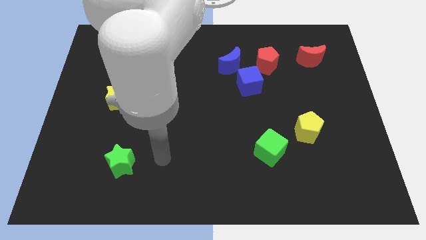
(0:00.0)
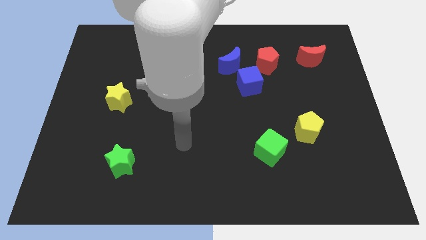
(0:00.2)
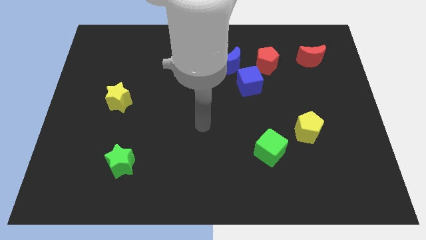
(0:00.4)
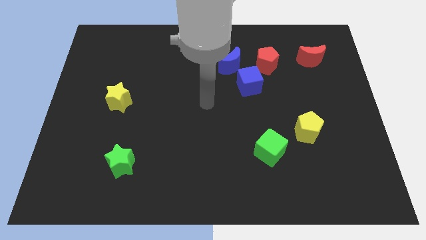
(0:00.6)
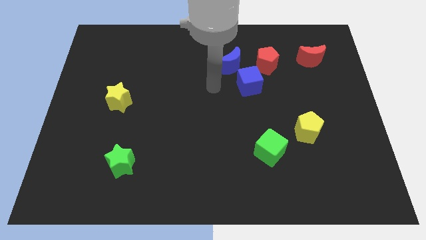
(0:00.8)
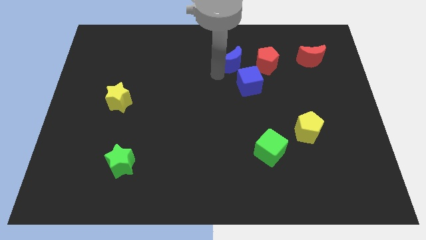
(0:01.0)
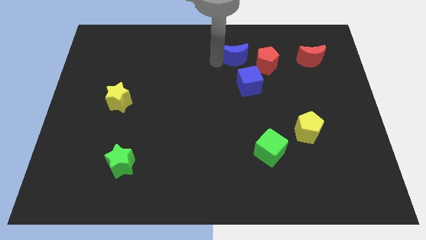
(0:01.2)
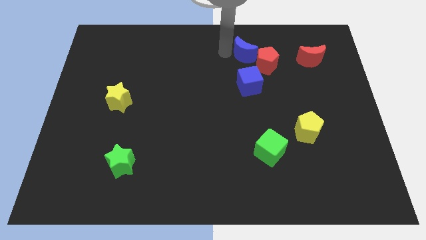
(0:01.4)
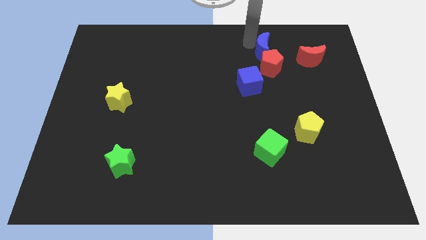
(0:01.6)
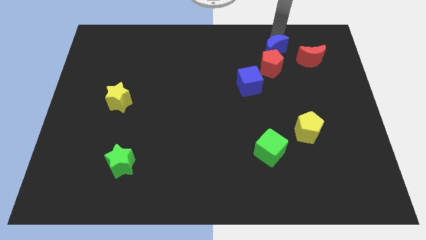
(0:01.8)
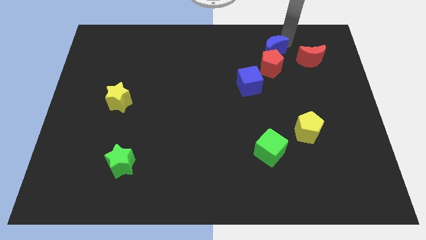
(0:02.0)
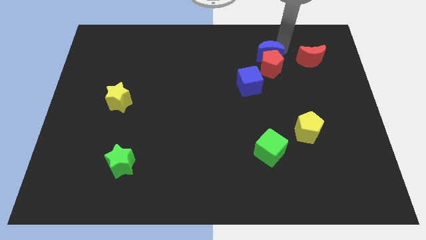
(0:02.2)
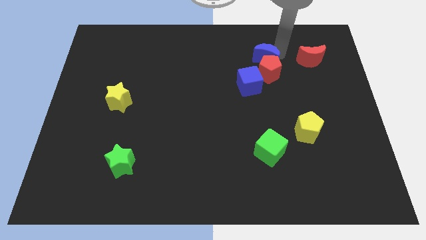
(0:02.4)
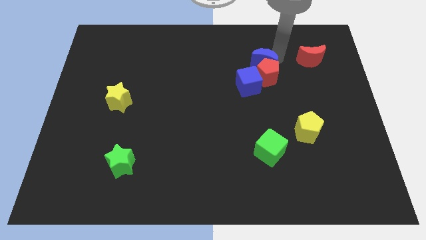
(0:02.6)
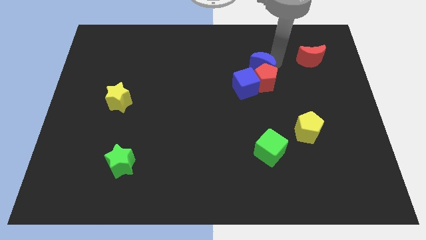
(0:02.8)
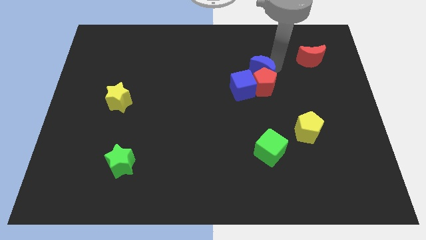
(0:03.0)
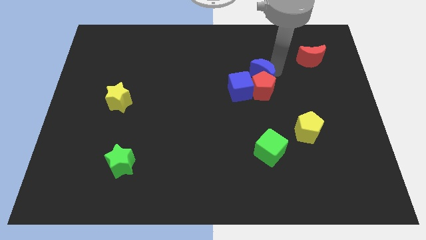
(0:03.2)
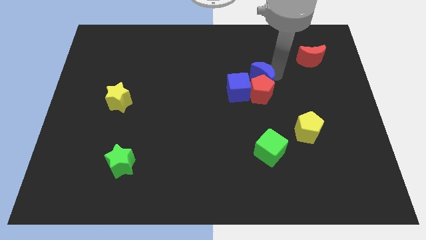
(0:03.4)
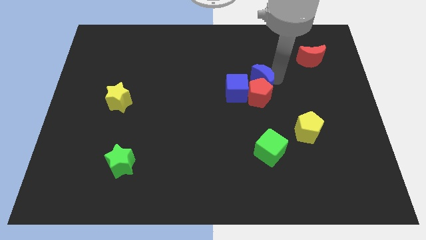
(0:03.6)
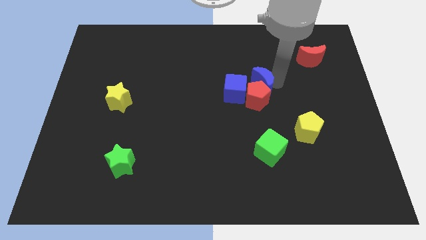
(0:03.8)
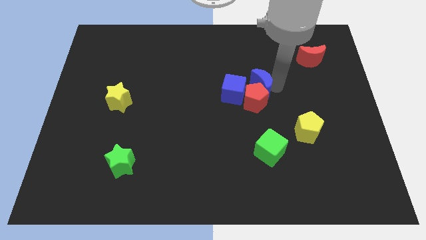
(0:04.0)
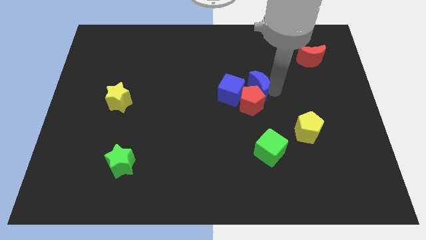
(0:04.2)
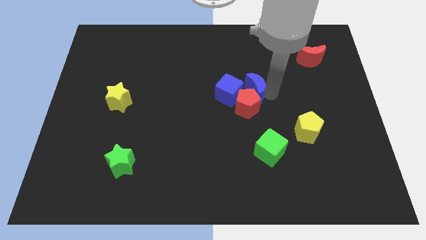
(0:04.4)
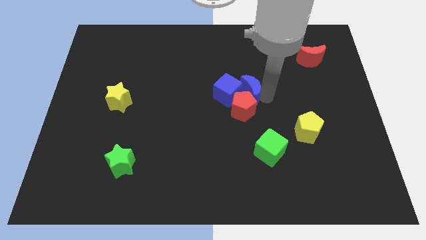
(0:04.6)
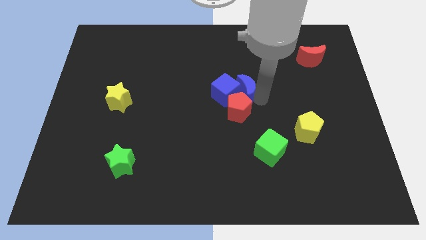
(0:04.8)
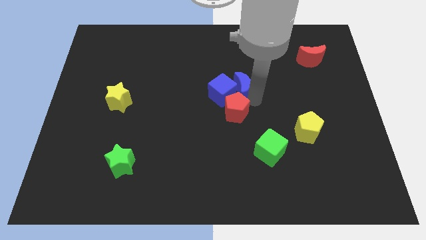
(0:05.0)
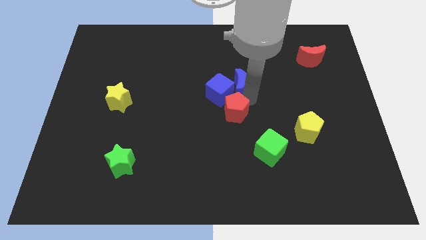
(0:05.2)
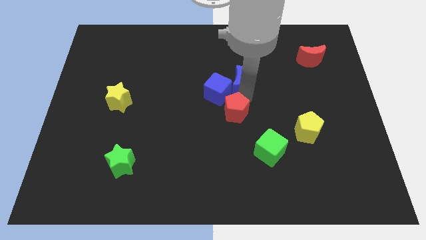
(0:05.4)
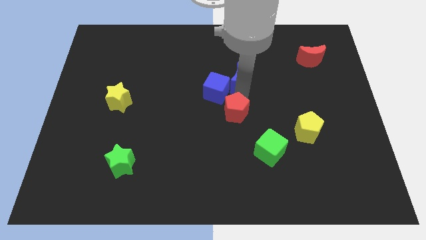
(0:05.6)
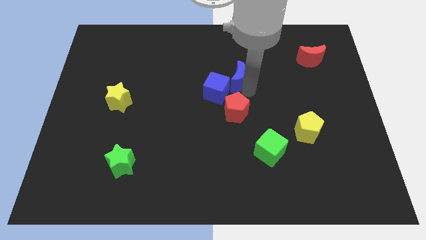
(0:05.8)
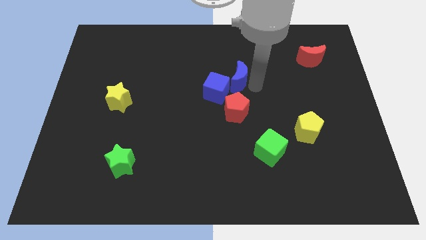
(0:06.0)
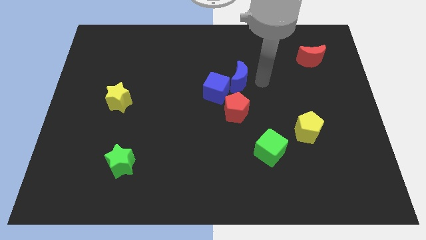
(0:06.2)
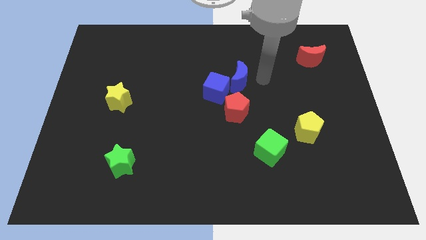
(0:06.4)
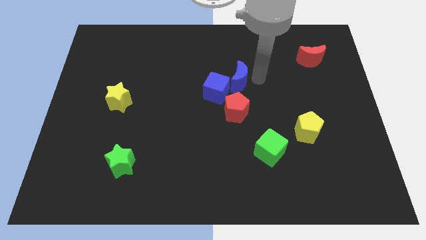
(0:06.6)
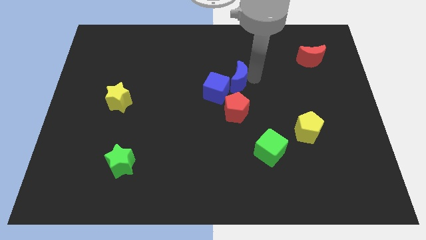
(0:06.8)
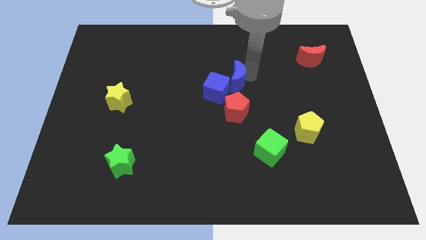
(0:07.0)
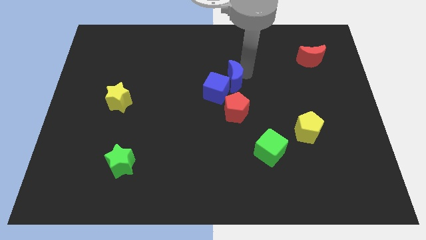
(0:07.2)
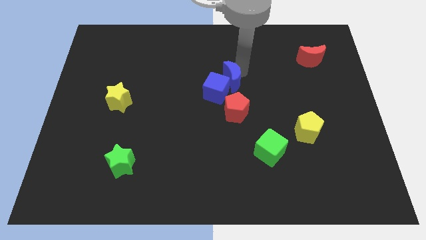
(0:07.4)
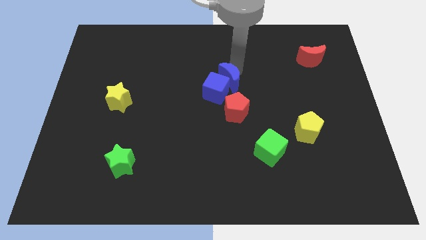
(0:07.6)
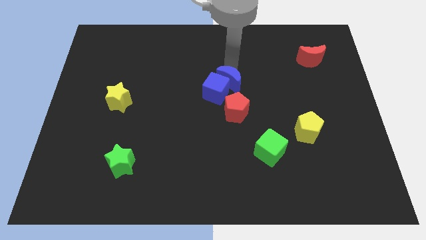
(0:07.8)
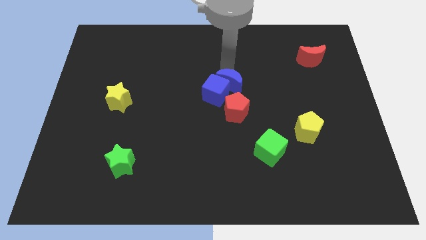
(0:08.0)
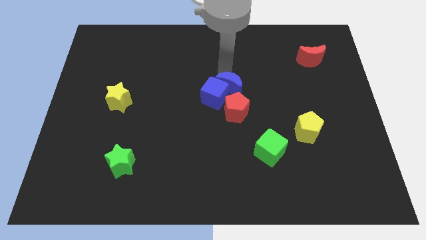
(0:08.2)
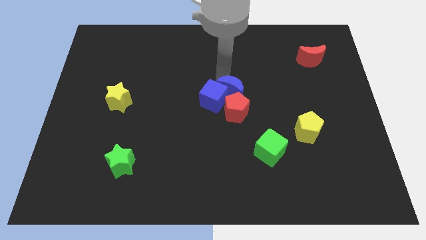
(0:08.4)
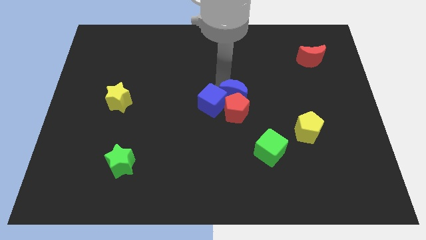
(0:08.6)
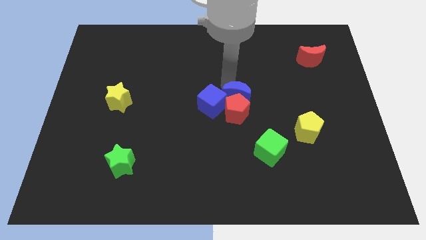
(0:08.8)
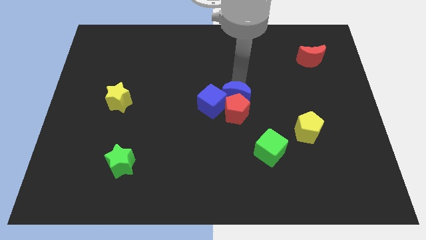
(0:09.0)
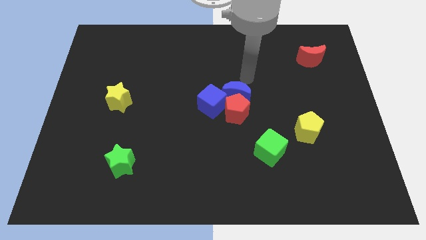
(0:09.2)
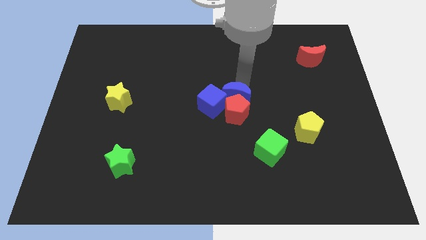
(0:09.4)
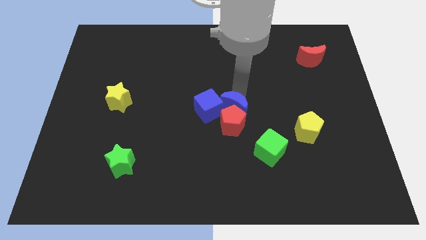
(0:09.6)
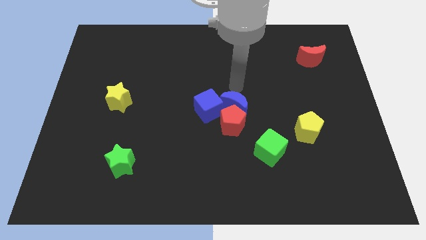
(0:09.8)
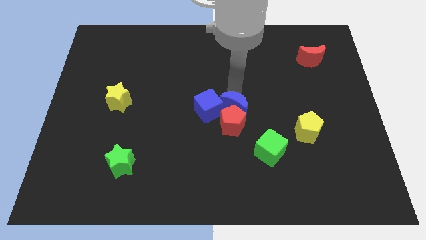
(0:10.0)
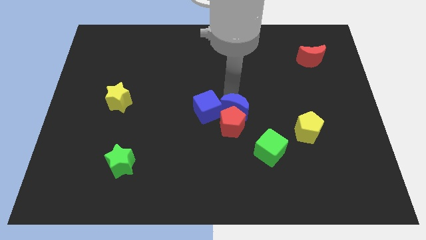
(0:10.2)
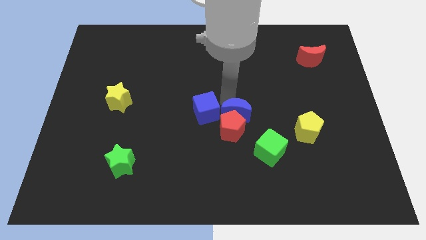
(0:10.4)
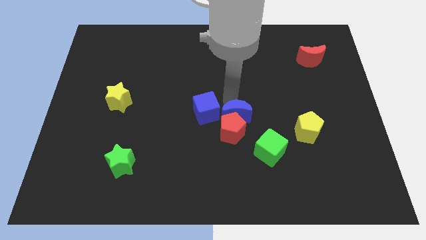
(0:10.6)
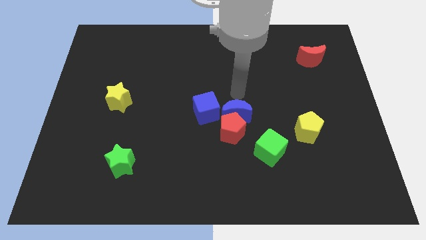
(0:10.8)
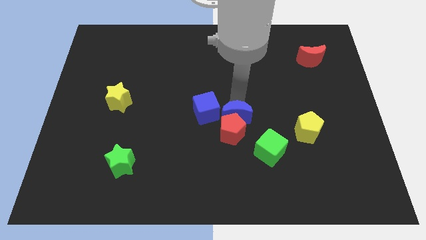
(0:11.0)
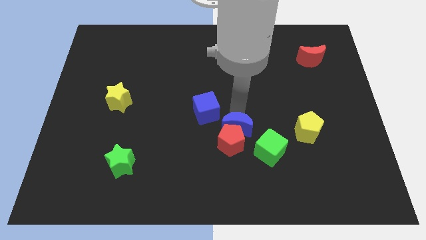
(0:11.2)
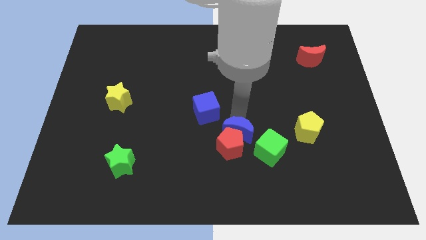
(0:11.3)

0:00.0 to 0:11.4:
push the blue moon downwards

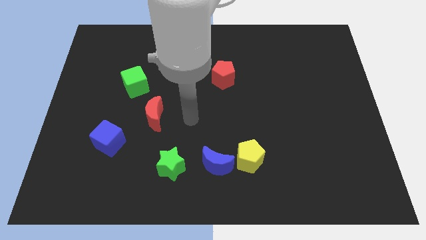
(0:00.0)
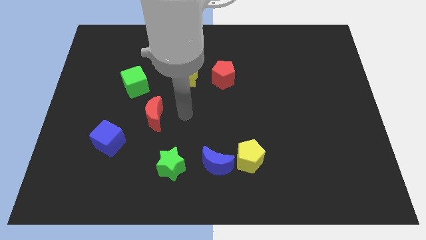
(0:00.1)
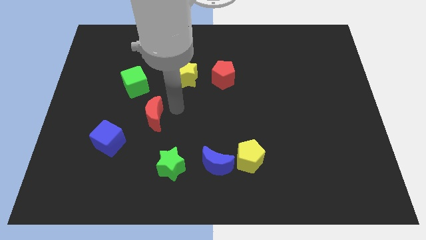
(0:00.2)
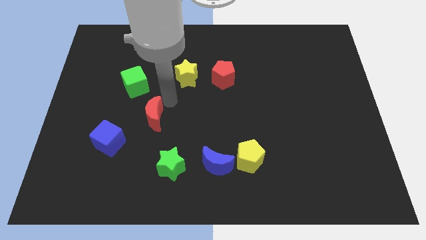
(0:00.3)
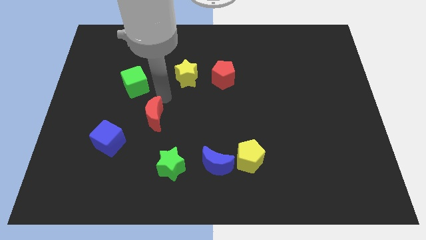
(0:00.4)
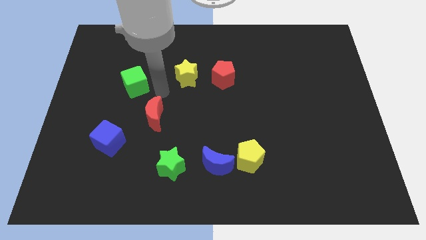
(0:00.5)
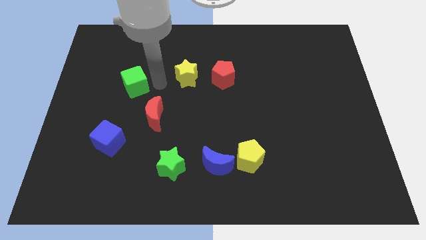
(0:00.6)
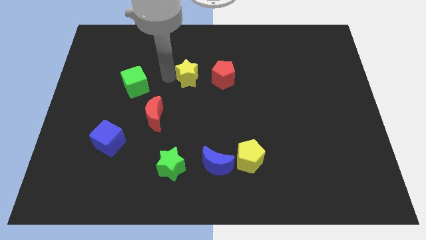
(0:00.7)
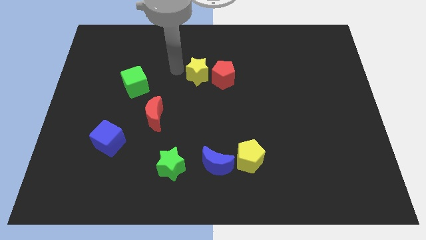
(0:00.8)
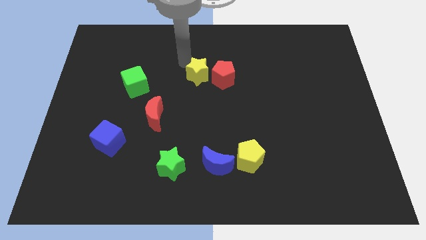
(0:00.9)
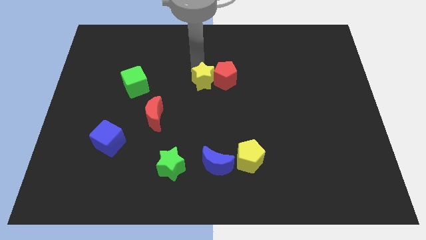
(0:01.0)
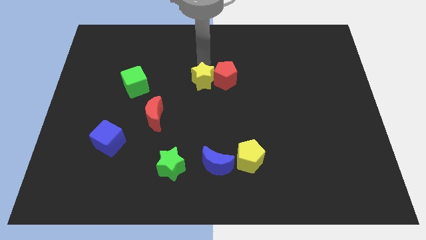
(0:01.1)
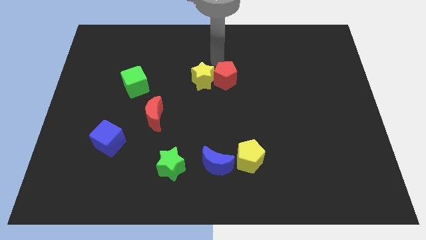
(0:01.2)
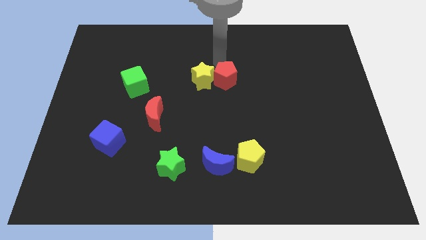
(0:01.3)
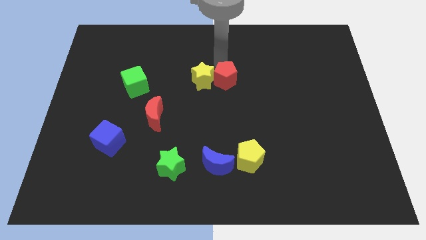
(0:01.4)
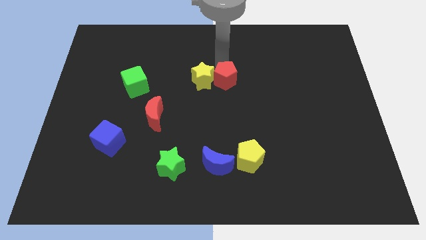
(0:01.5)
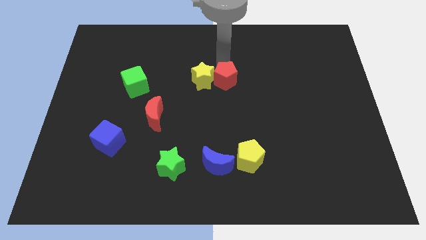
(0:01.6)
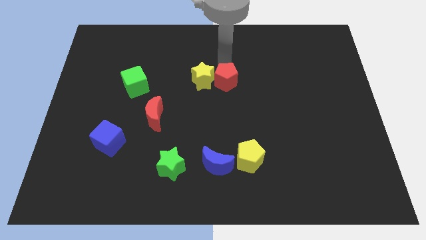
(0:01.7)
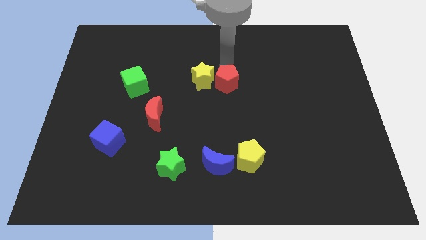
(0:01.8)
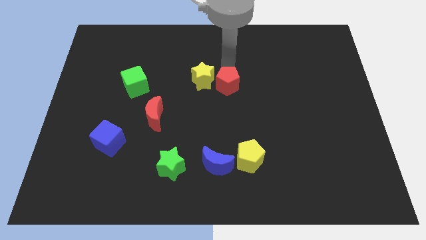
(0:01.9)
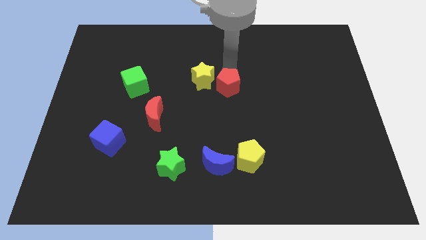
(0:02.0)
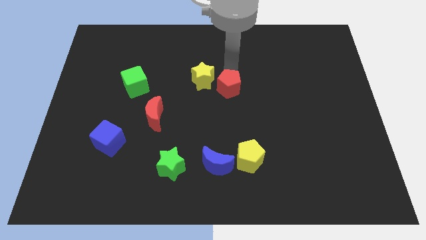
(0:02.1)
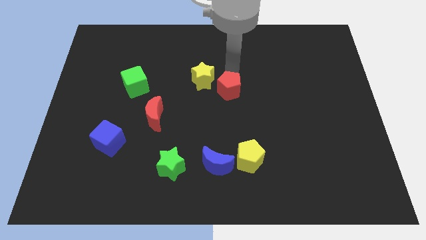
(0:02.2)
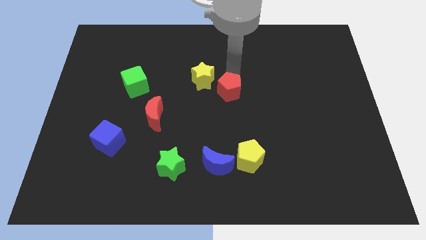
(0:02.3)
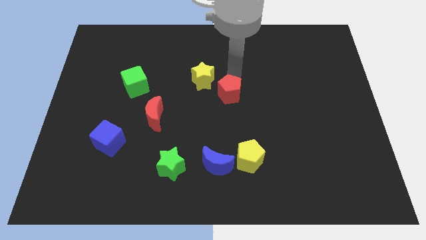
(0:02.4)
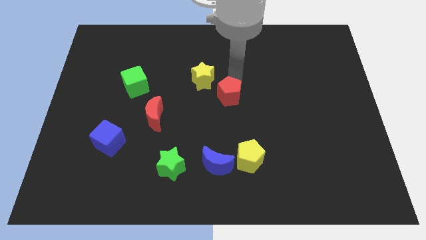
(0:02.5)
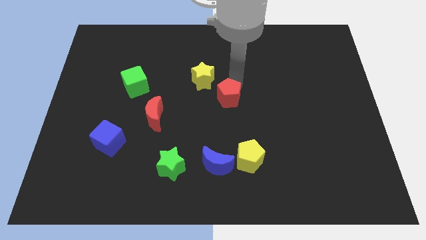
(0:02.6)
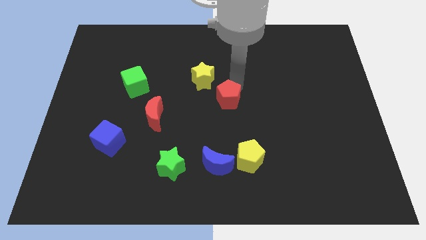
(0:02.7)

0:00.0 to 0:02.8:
push the red pentagon slightly downwards
